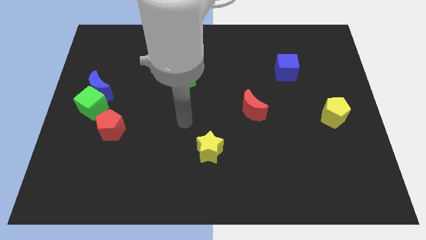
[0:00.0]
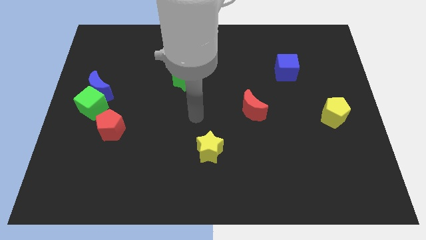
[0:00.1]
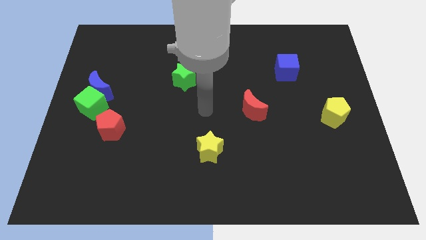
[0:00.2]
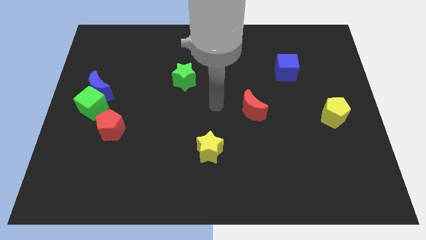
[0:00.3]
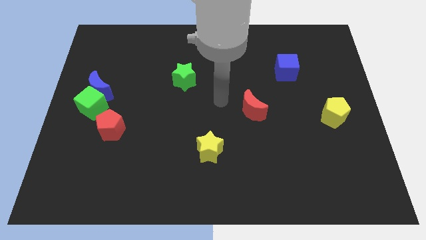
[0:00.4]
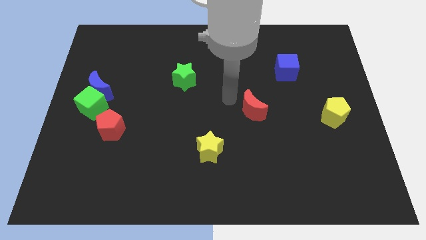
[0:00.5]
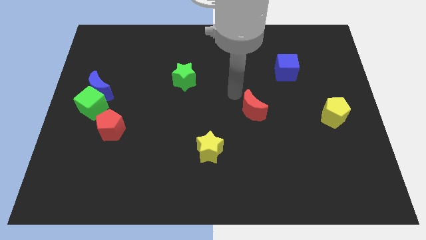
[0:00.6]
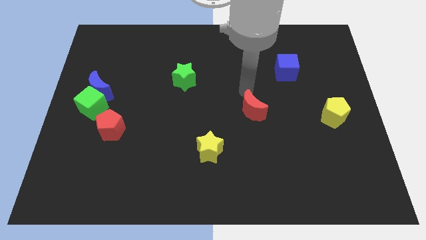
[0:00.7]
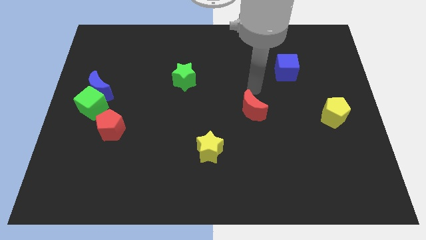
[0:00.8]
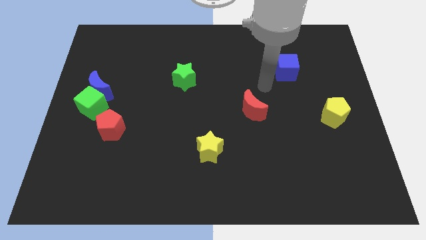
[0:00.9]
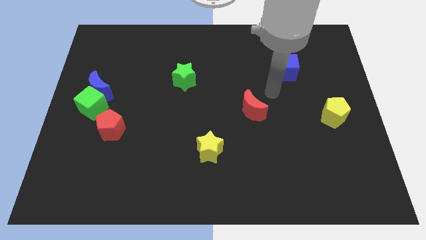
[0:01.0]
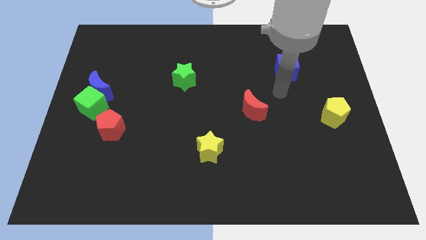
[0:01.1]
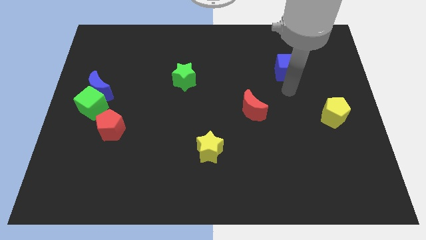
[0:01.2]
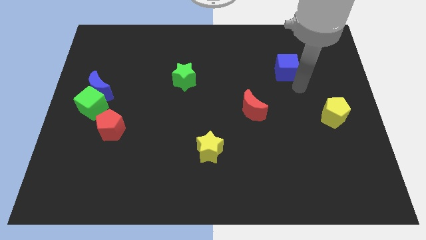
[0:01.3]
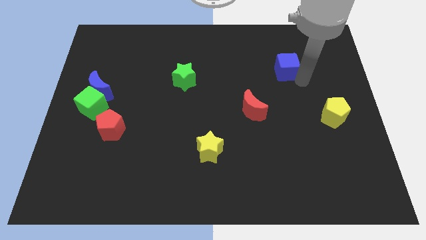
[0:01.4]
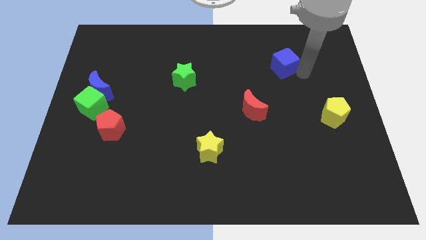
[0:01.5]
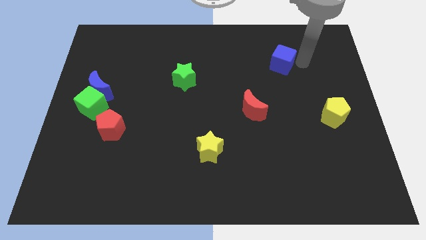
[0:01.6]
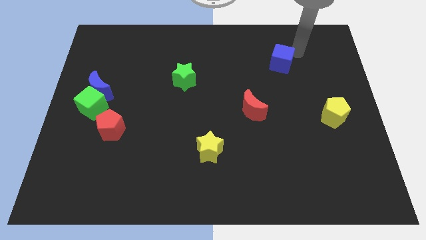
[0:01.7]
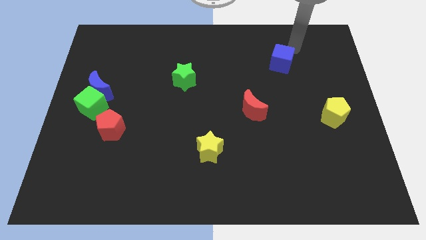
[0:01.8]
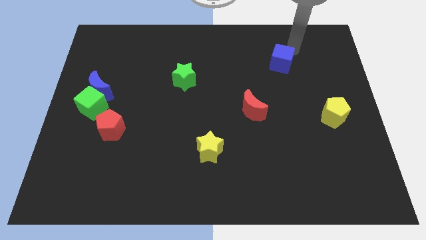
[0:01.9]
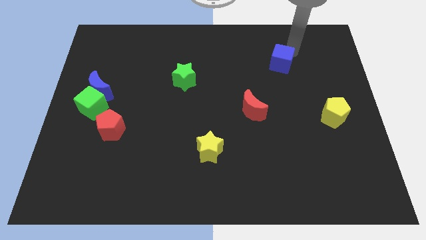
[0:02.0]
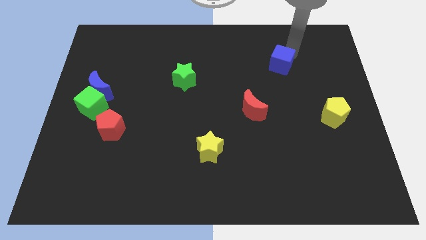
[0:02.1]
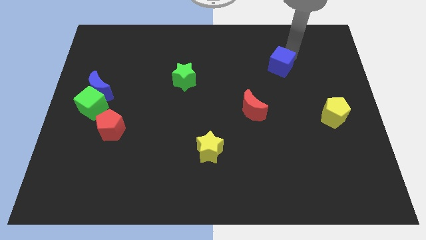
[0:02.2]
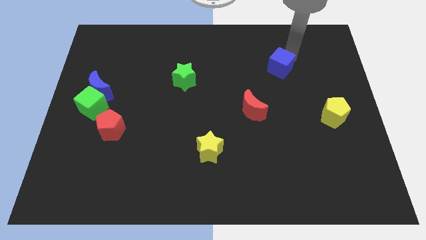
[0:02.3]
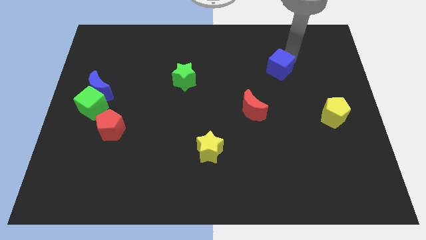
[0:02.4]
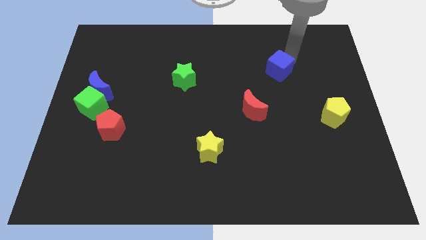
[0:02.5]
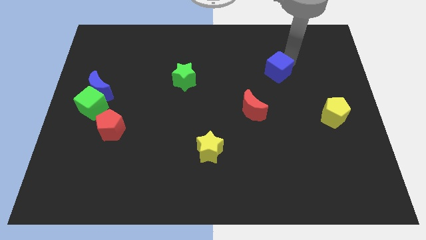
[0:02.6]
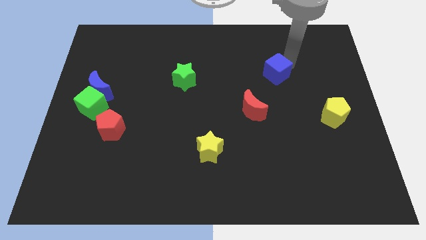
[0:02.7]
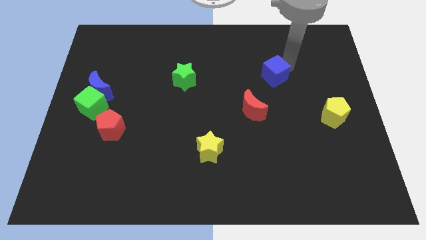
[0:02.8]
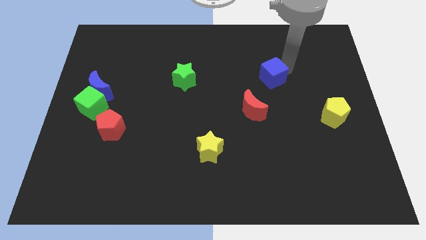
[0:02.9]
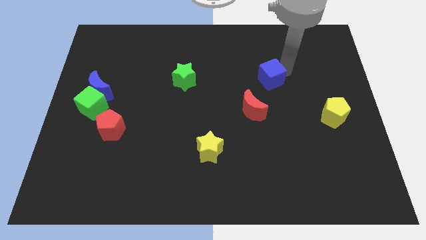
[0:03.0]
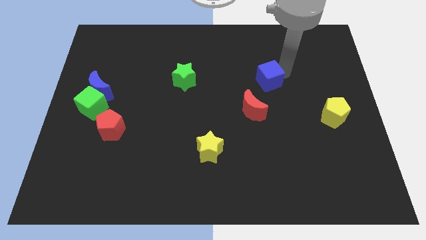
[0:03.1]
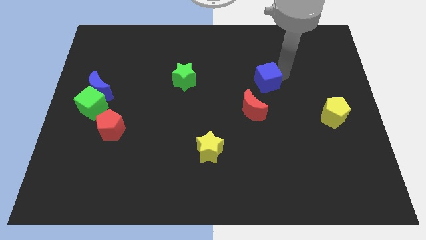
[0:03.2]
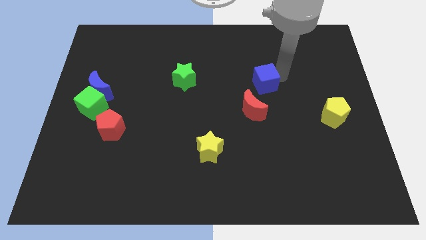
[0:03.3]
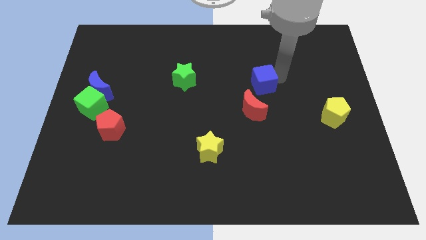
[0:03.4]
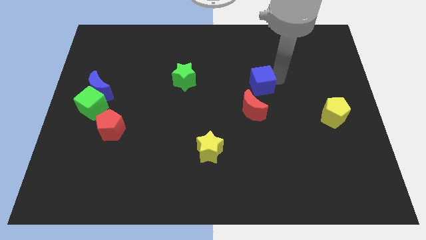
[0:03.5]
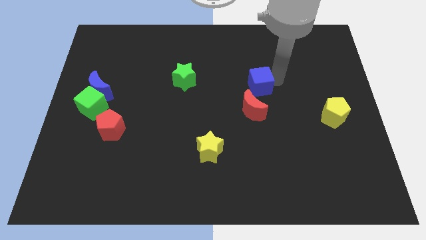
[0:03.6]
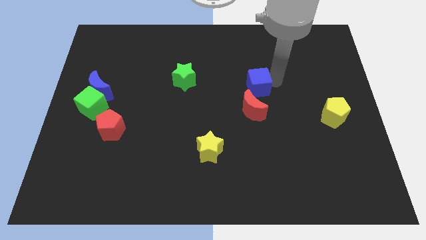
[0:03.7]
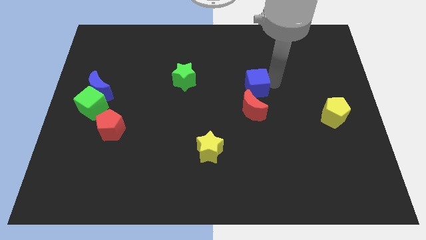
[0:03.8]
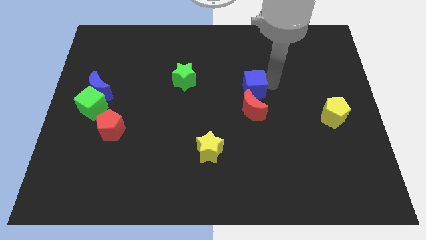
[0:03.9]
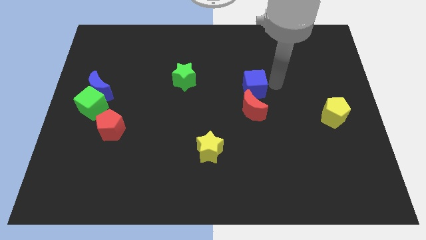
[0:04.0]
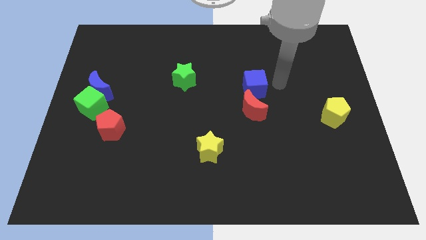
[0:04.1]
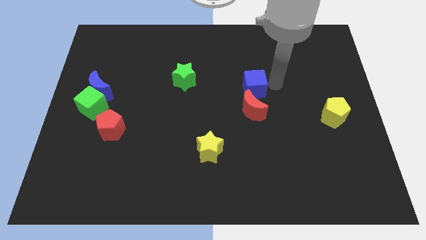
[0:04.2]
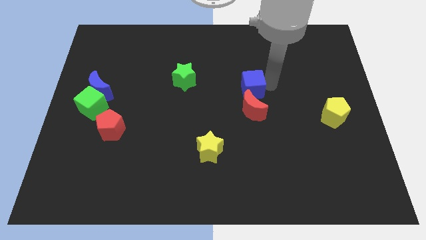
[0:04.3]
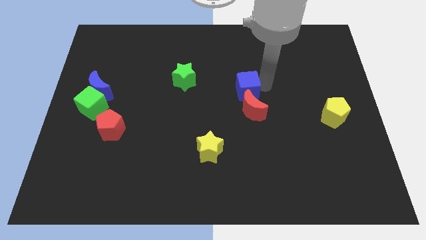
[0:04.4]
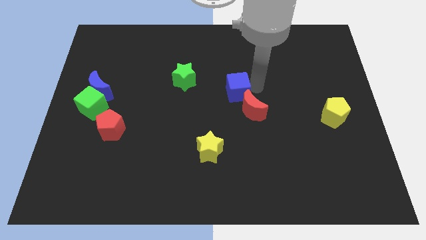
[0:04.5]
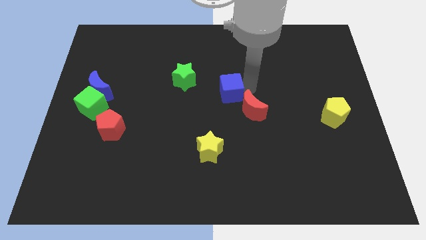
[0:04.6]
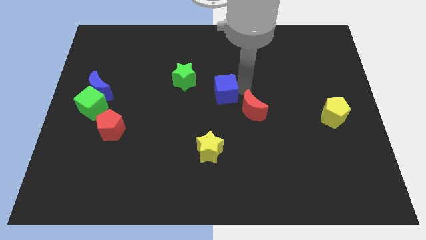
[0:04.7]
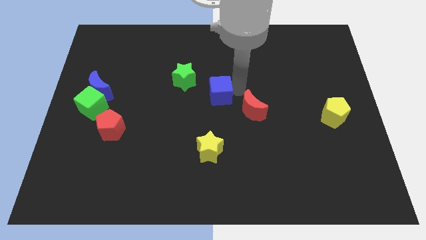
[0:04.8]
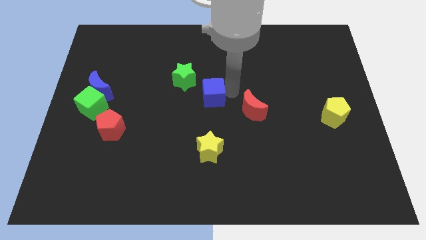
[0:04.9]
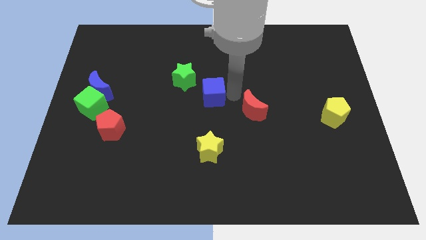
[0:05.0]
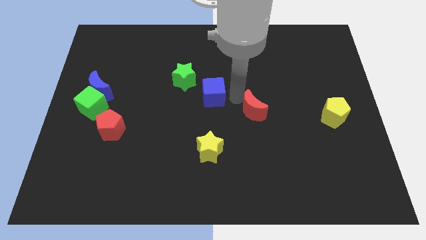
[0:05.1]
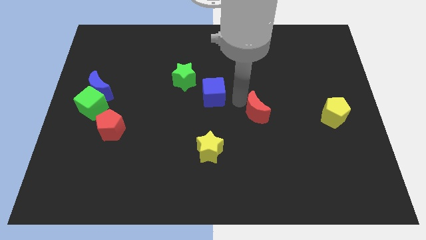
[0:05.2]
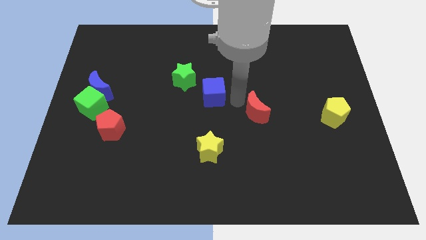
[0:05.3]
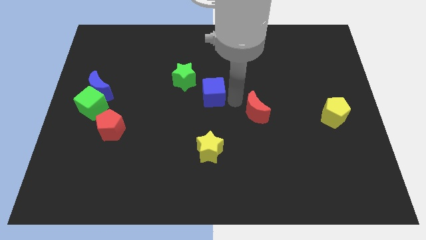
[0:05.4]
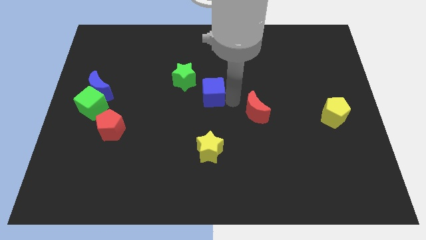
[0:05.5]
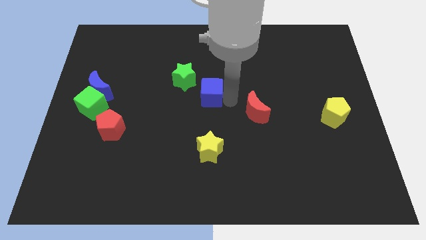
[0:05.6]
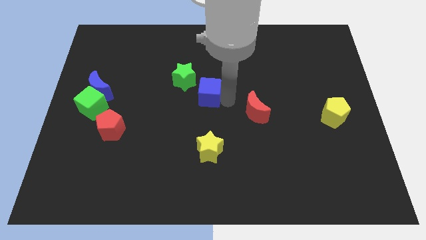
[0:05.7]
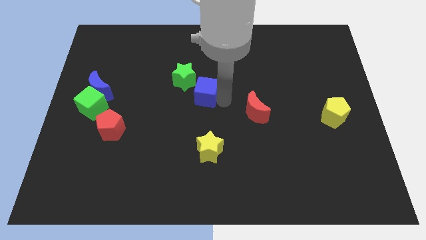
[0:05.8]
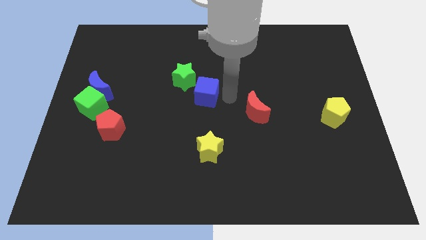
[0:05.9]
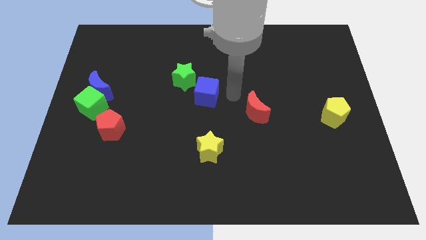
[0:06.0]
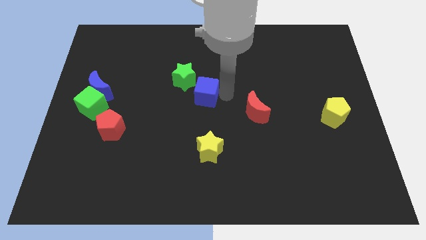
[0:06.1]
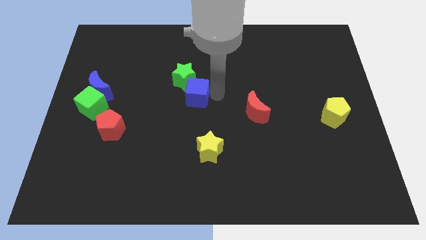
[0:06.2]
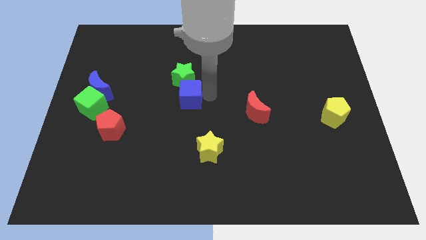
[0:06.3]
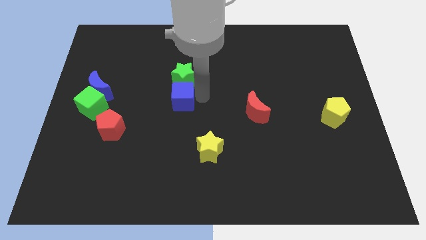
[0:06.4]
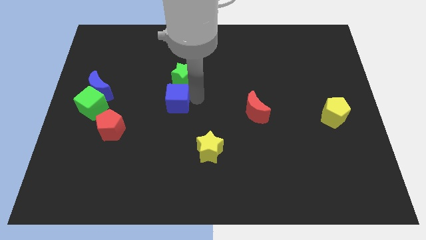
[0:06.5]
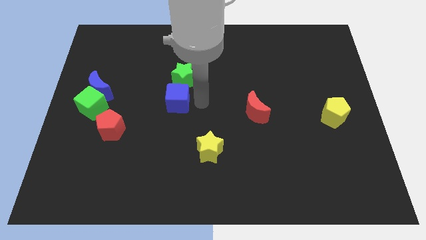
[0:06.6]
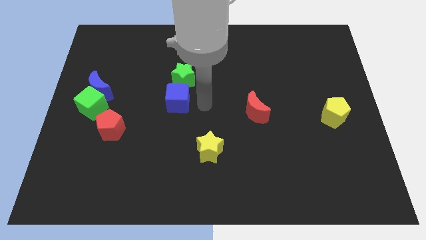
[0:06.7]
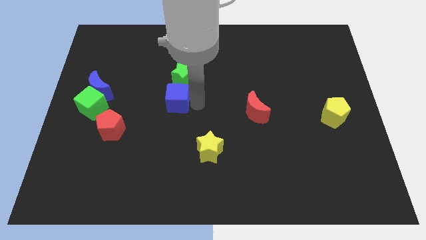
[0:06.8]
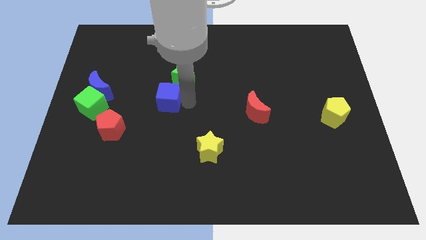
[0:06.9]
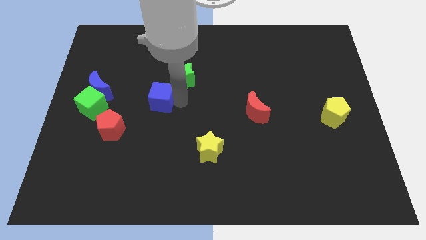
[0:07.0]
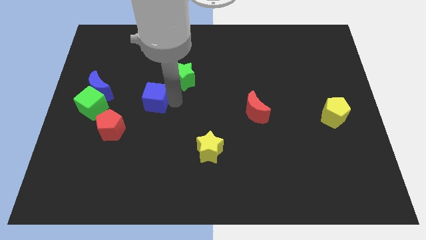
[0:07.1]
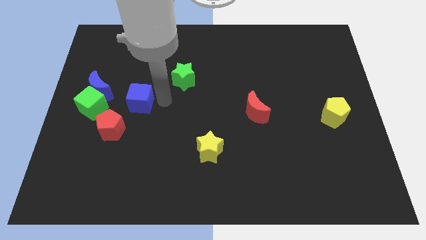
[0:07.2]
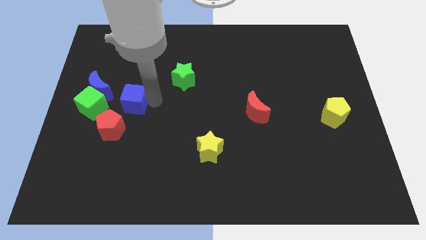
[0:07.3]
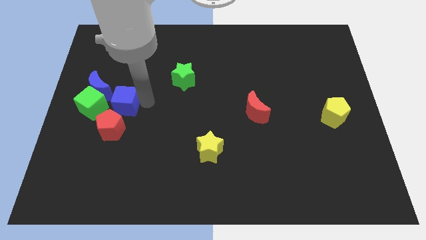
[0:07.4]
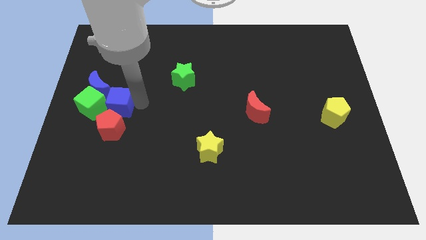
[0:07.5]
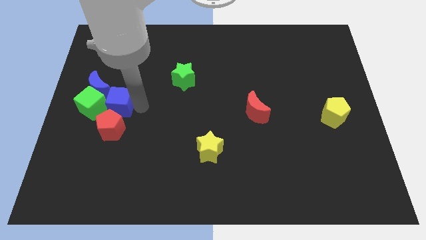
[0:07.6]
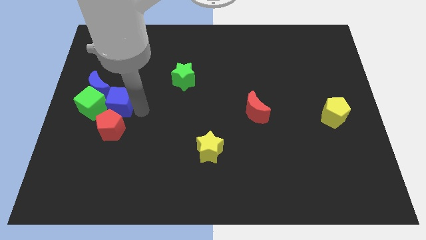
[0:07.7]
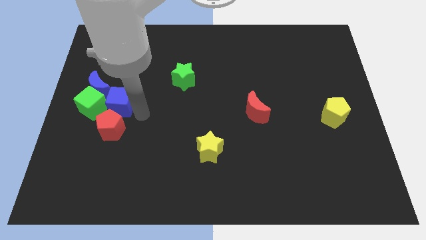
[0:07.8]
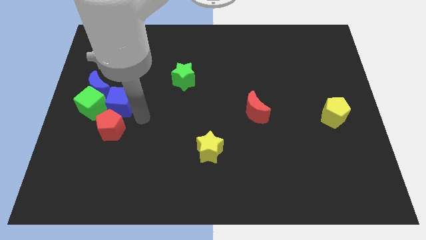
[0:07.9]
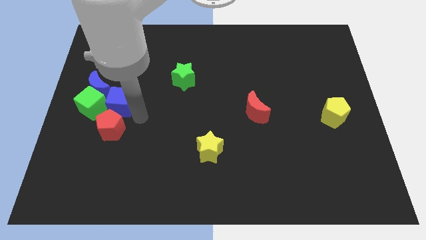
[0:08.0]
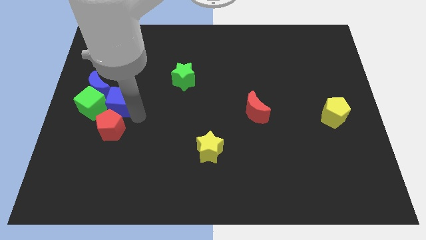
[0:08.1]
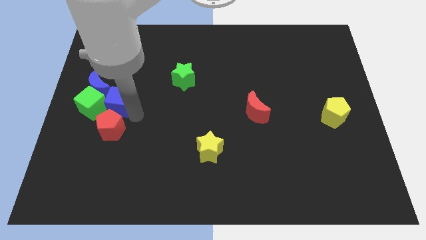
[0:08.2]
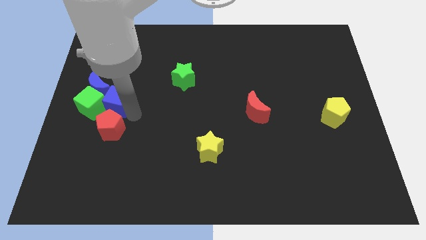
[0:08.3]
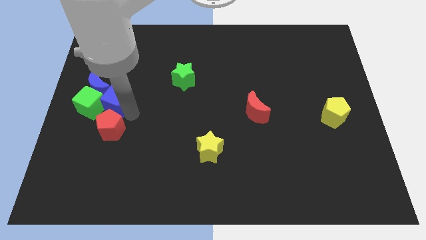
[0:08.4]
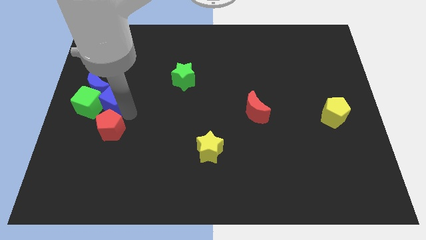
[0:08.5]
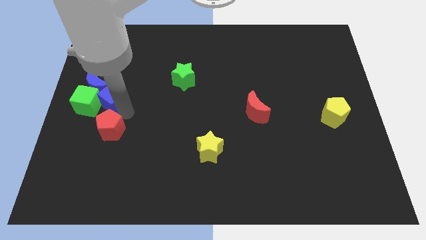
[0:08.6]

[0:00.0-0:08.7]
slide the blue cube to the blue moon
